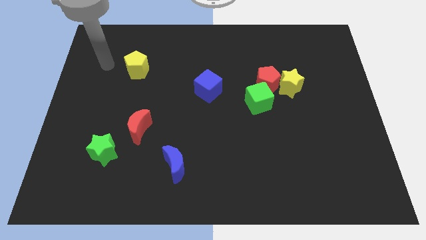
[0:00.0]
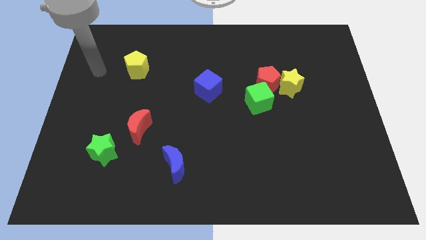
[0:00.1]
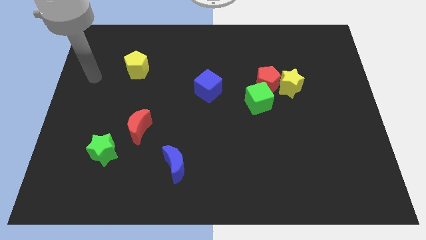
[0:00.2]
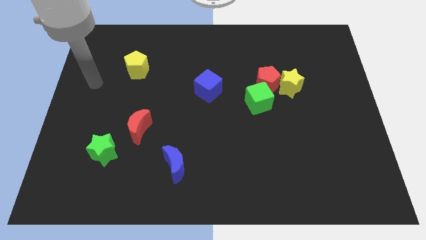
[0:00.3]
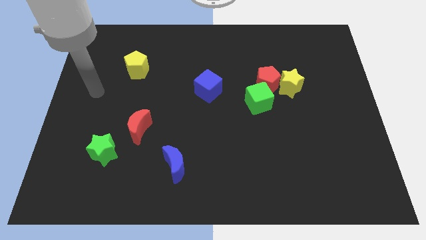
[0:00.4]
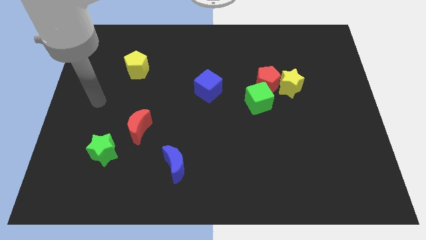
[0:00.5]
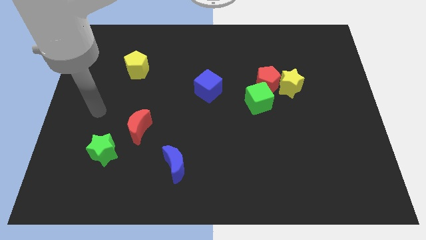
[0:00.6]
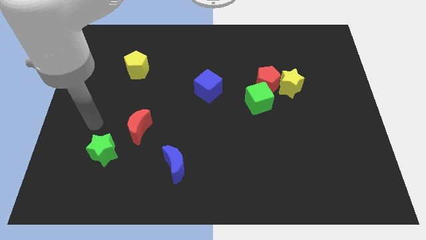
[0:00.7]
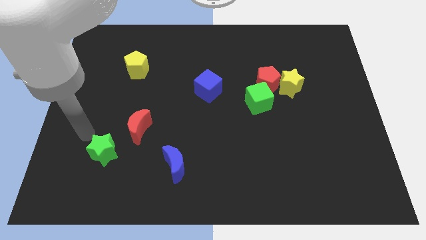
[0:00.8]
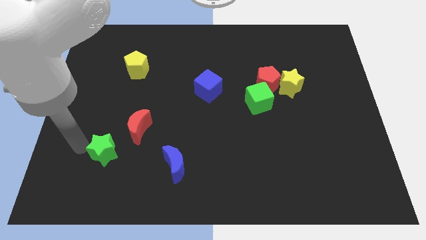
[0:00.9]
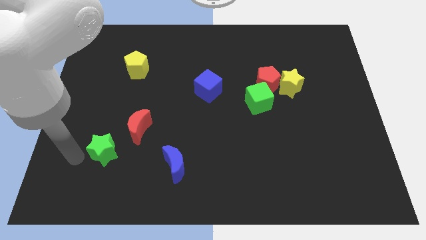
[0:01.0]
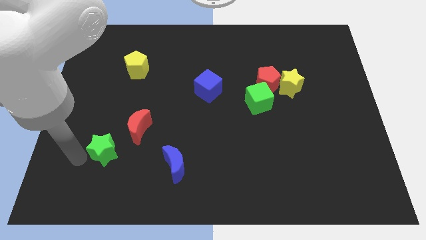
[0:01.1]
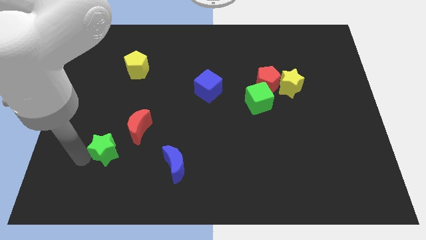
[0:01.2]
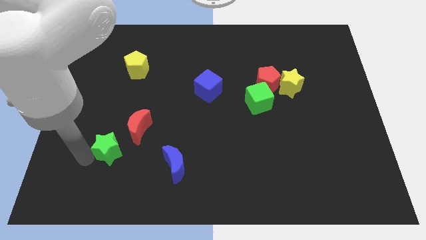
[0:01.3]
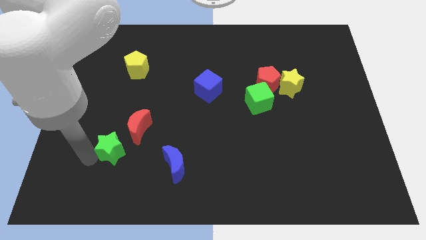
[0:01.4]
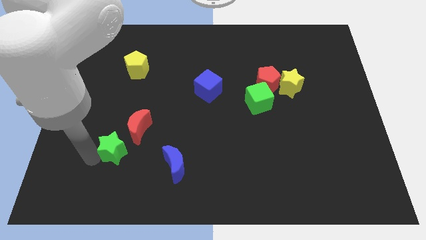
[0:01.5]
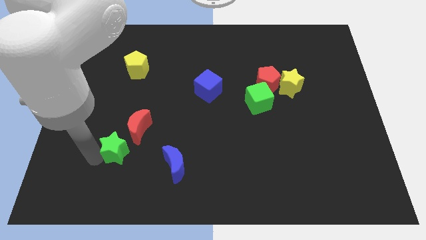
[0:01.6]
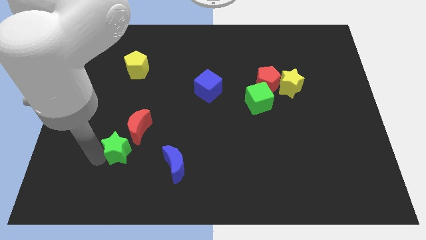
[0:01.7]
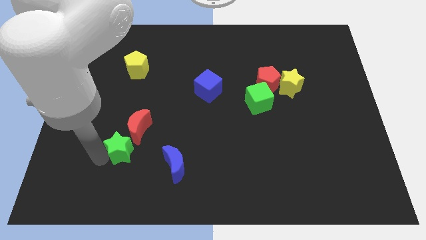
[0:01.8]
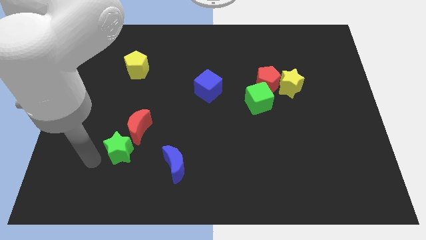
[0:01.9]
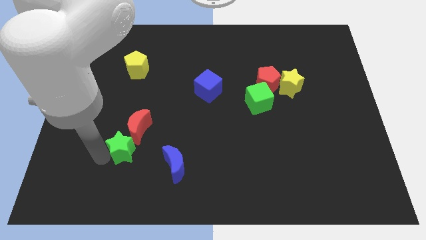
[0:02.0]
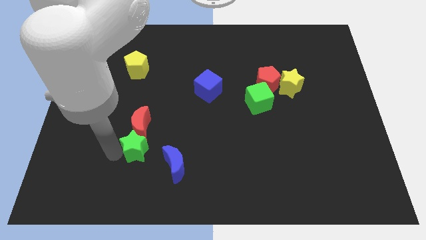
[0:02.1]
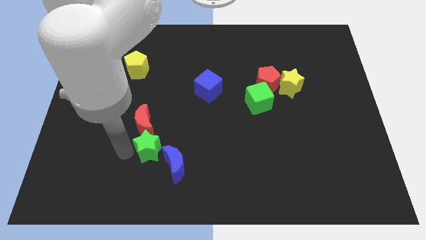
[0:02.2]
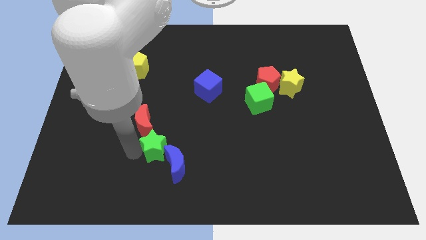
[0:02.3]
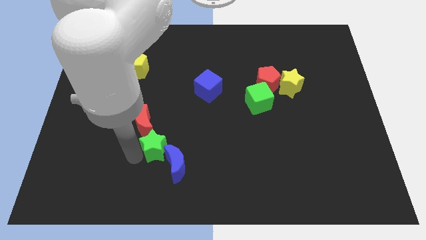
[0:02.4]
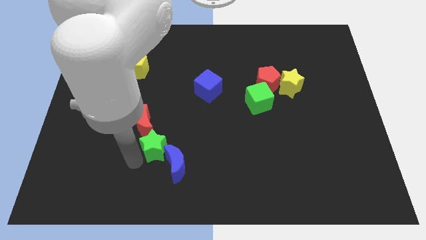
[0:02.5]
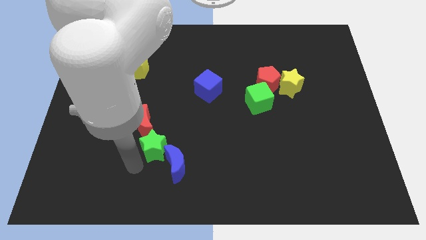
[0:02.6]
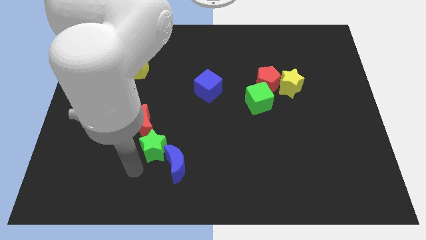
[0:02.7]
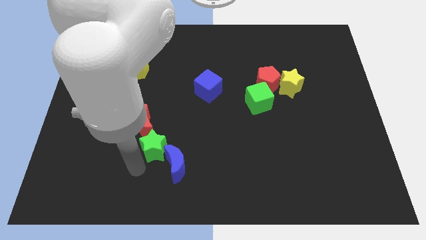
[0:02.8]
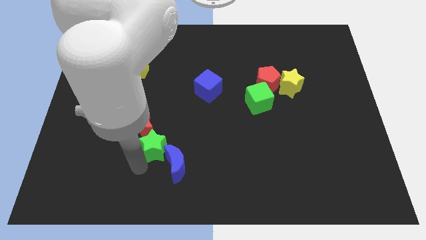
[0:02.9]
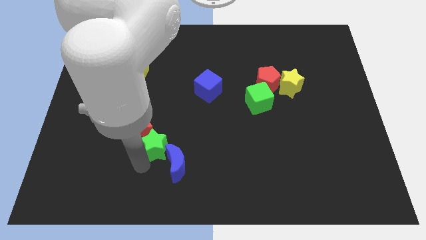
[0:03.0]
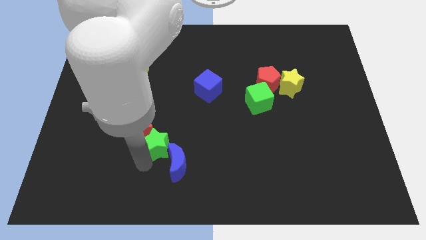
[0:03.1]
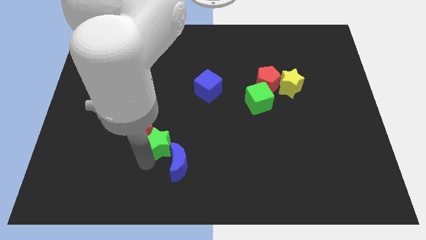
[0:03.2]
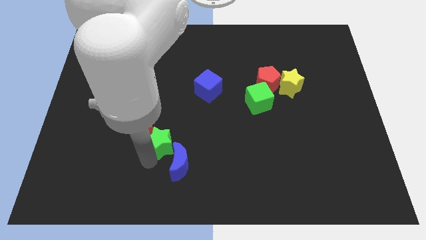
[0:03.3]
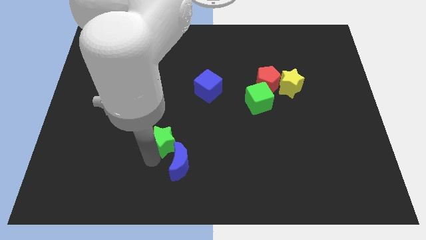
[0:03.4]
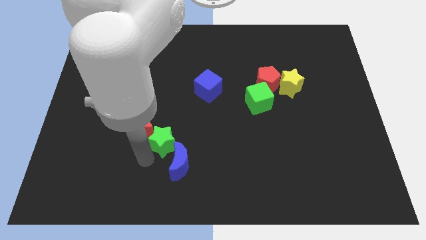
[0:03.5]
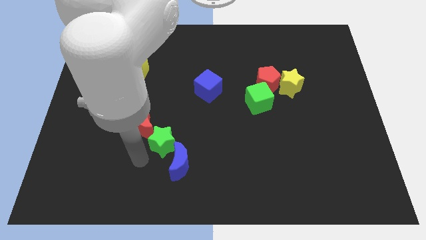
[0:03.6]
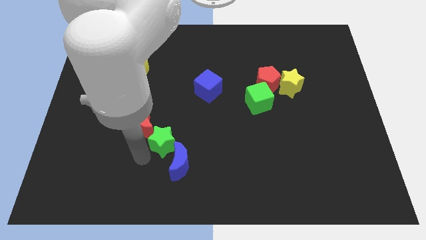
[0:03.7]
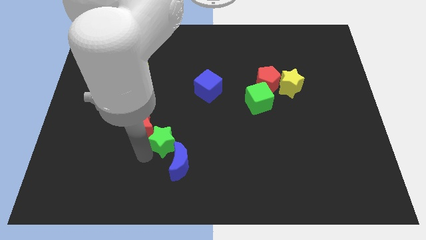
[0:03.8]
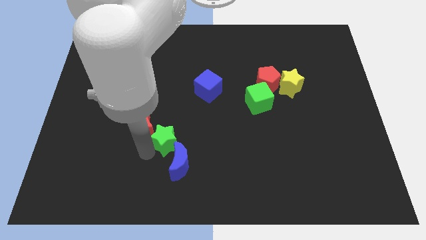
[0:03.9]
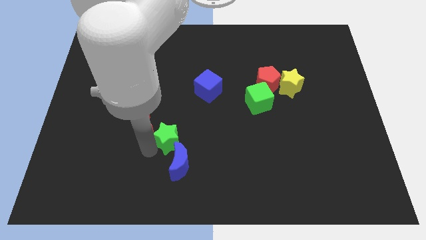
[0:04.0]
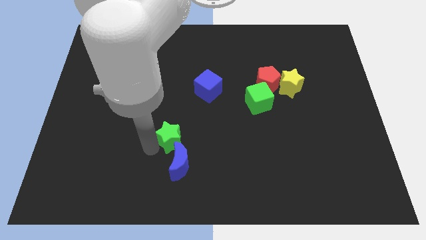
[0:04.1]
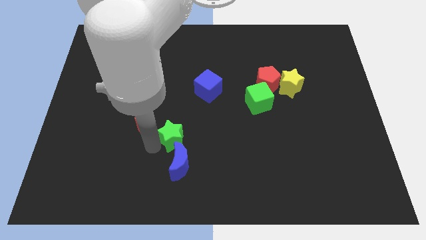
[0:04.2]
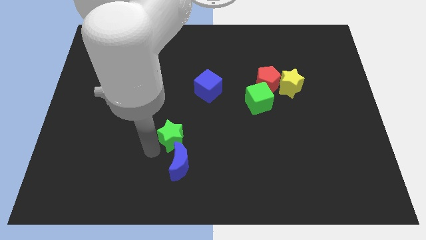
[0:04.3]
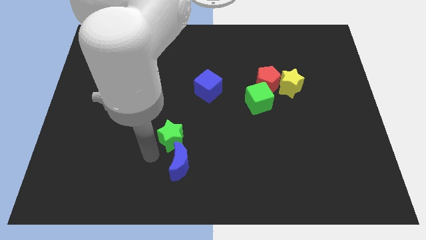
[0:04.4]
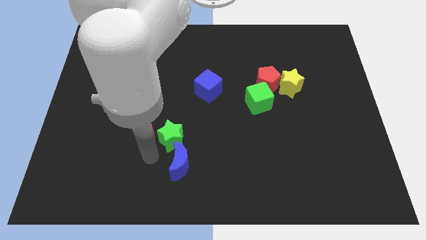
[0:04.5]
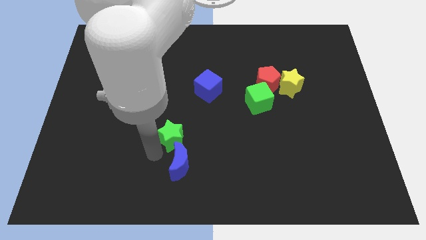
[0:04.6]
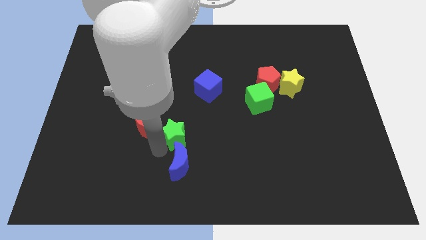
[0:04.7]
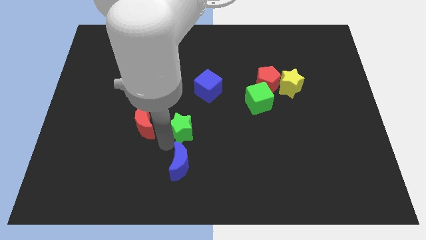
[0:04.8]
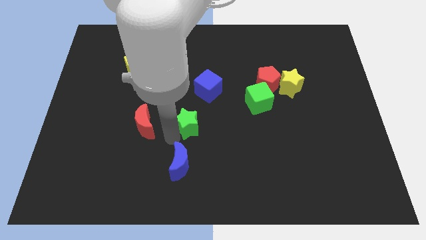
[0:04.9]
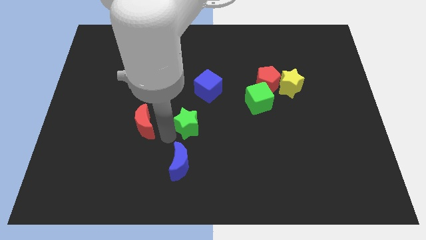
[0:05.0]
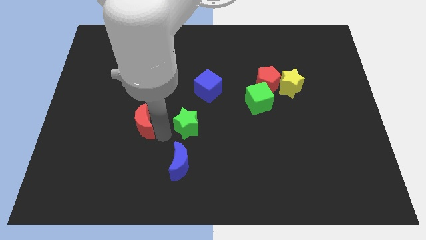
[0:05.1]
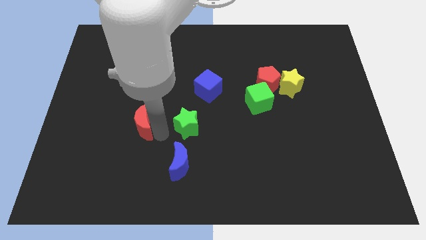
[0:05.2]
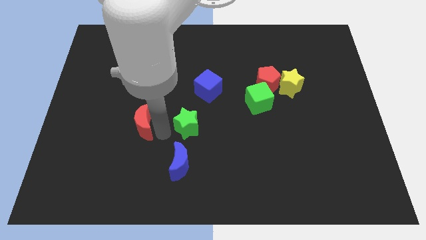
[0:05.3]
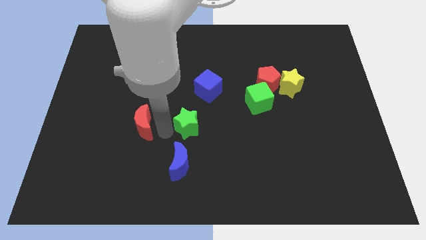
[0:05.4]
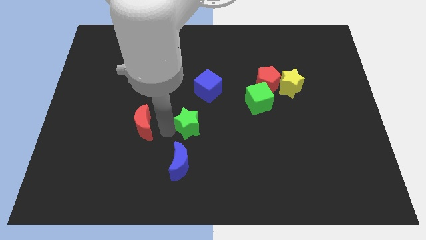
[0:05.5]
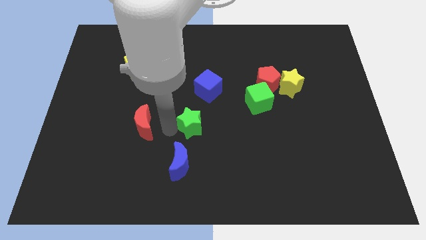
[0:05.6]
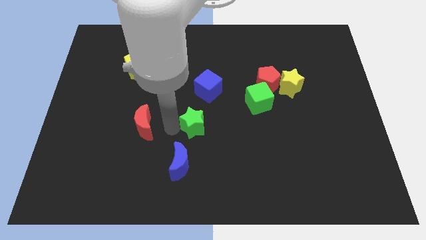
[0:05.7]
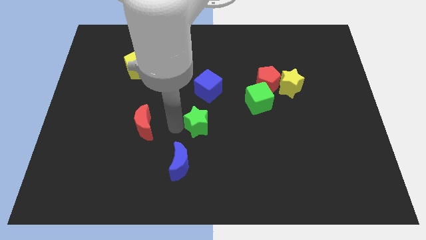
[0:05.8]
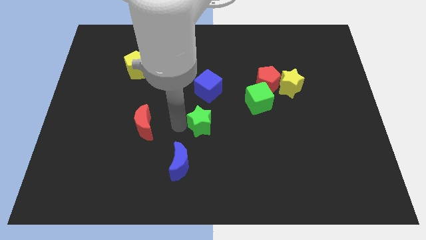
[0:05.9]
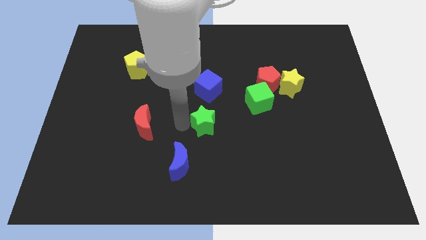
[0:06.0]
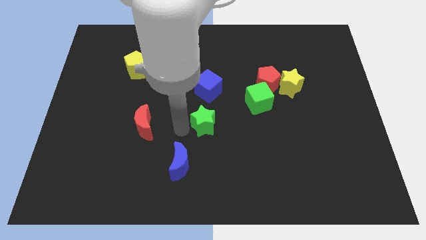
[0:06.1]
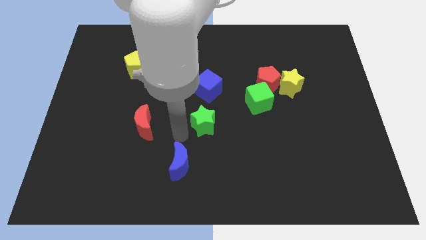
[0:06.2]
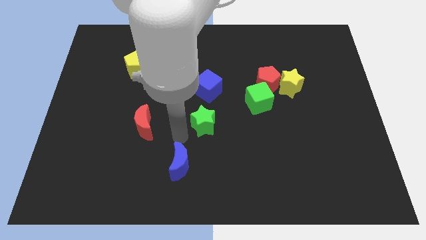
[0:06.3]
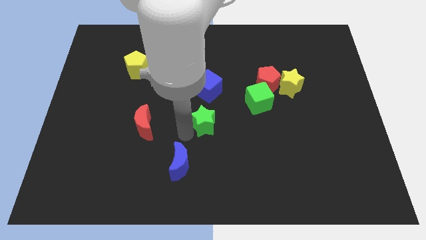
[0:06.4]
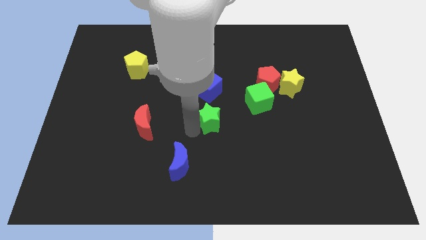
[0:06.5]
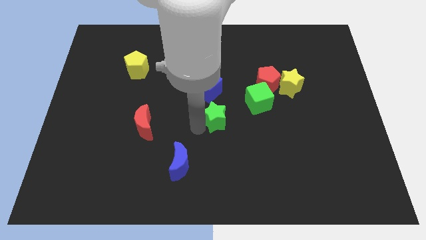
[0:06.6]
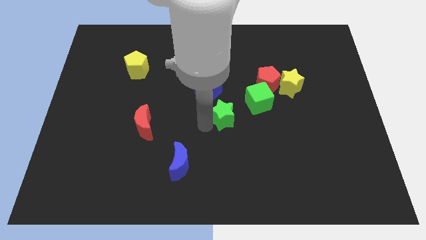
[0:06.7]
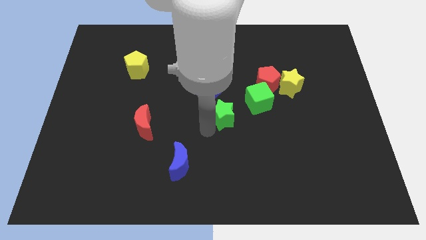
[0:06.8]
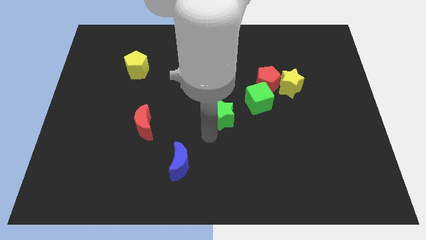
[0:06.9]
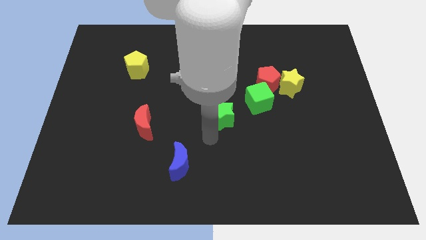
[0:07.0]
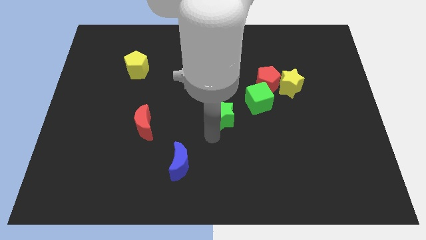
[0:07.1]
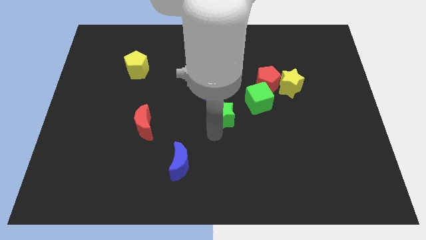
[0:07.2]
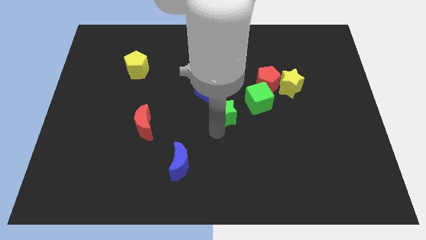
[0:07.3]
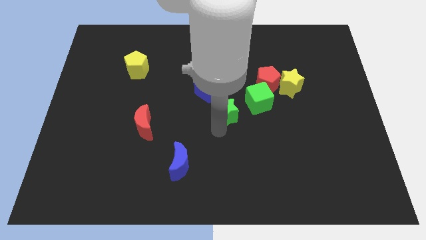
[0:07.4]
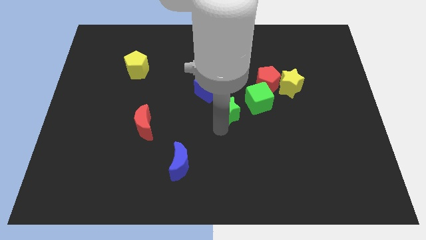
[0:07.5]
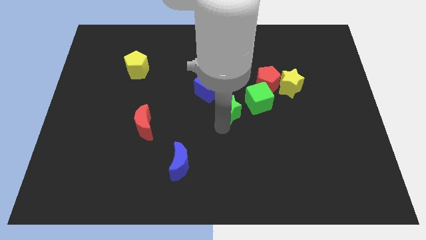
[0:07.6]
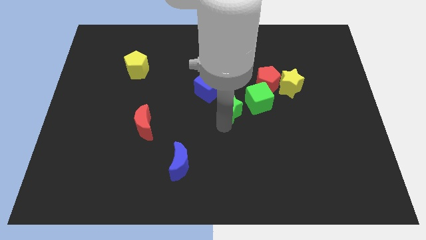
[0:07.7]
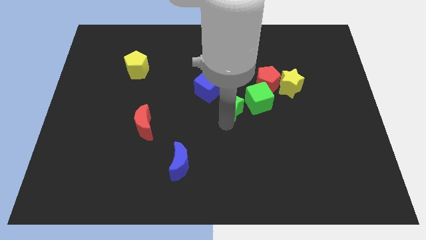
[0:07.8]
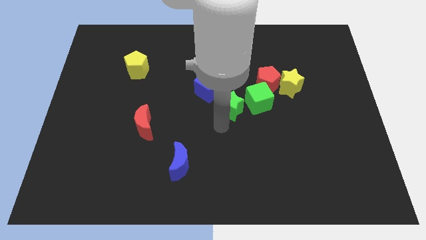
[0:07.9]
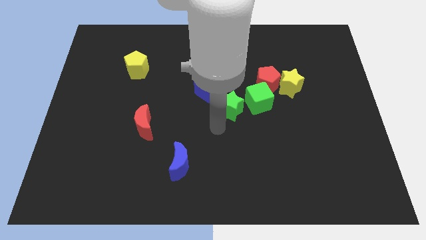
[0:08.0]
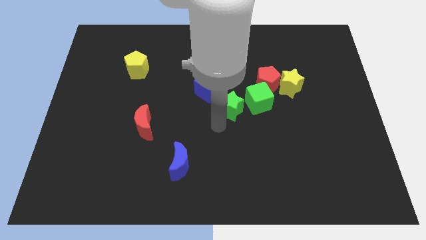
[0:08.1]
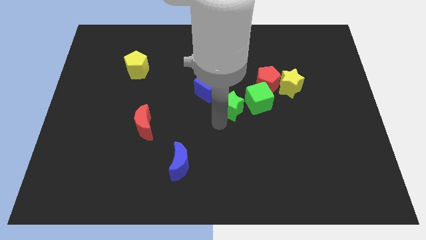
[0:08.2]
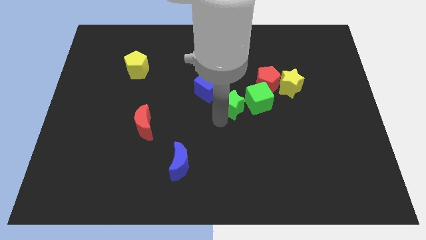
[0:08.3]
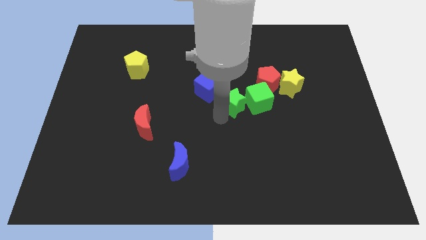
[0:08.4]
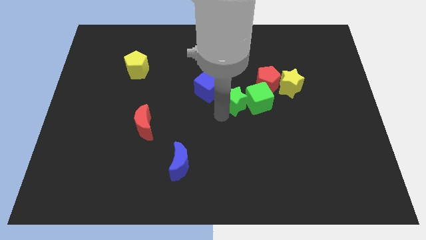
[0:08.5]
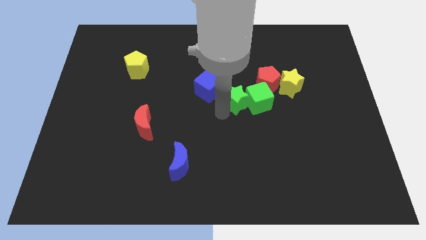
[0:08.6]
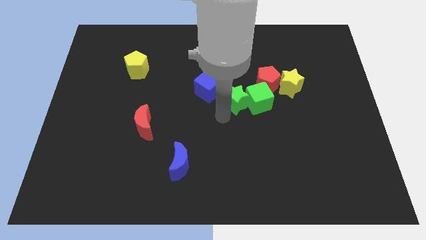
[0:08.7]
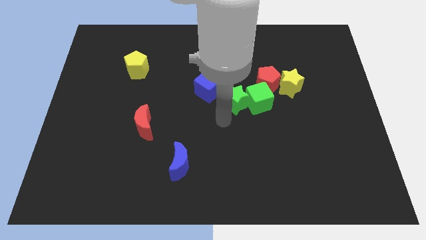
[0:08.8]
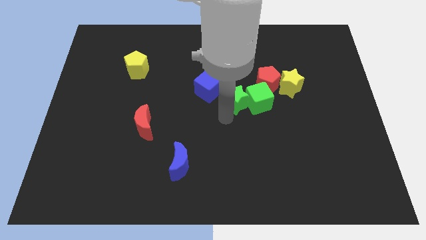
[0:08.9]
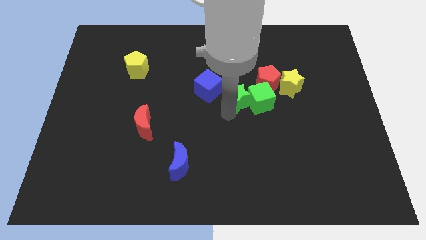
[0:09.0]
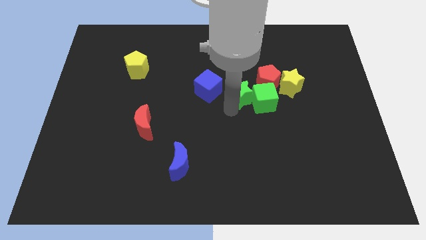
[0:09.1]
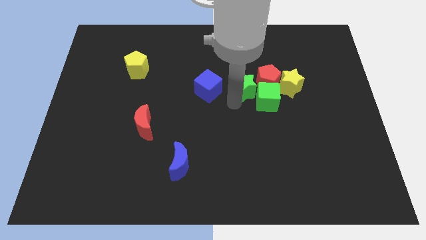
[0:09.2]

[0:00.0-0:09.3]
move the green star to the red pentagon
